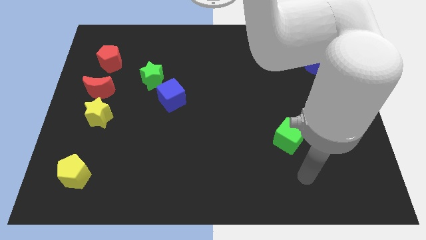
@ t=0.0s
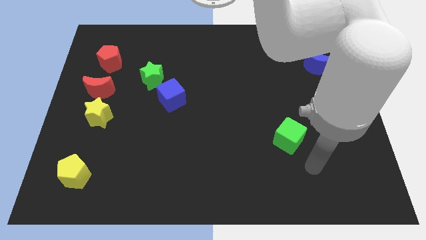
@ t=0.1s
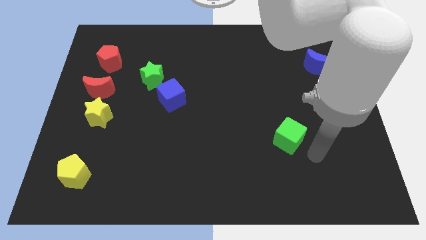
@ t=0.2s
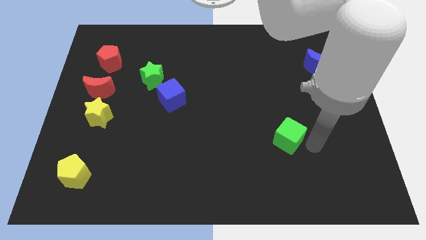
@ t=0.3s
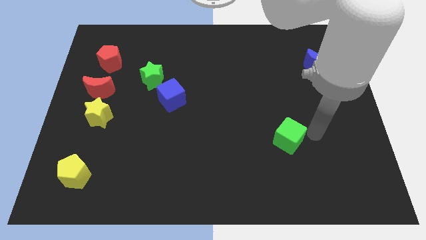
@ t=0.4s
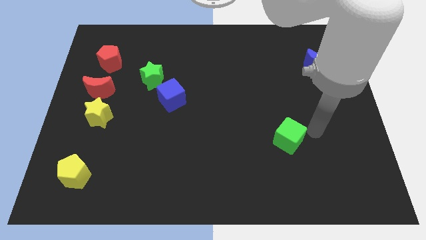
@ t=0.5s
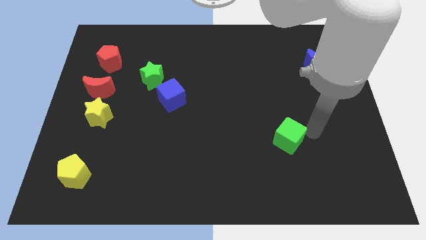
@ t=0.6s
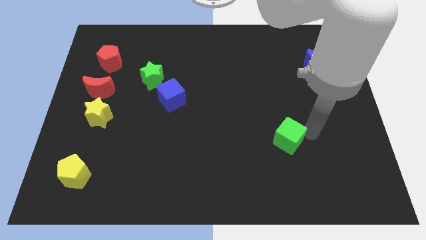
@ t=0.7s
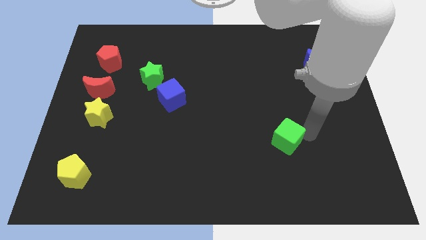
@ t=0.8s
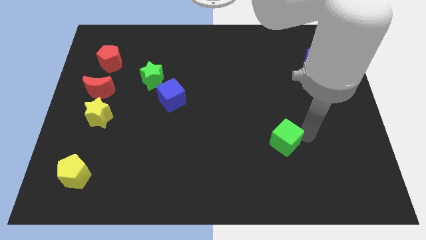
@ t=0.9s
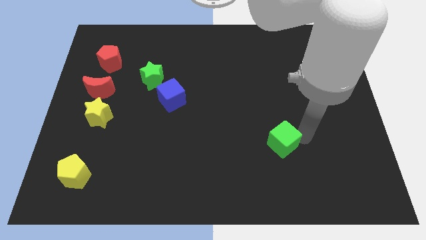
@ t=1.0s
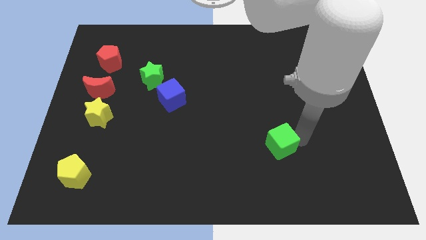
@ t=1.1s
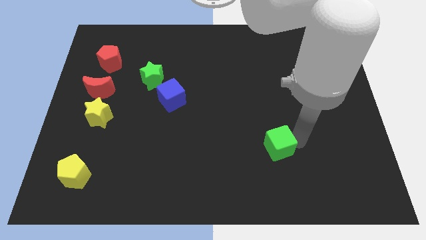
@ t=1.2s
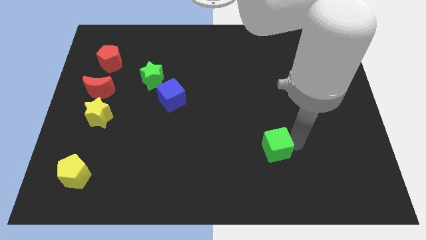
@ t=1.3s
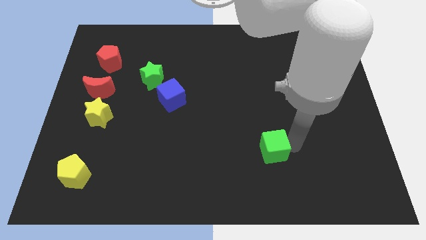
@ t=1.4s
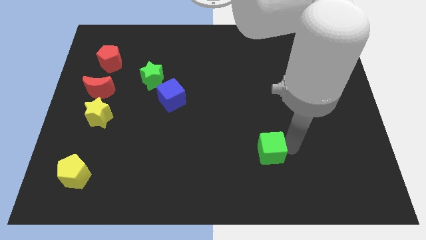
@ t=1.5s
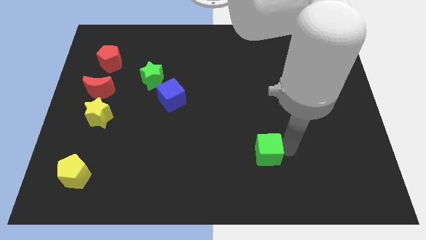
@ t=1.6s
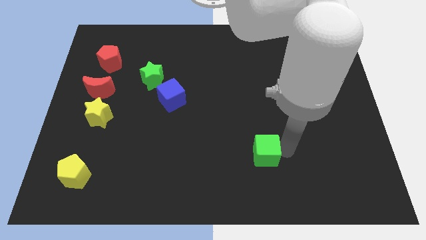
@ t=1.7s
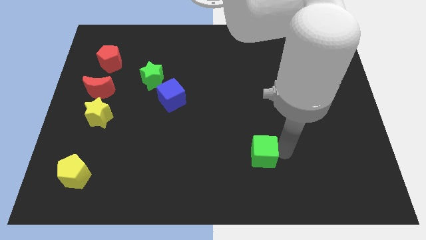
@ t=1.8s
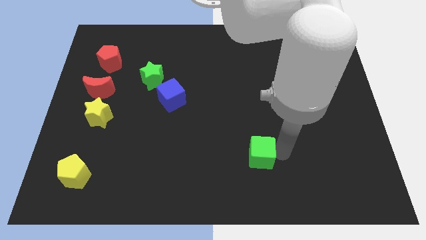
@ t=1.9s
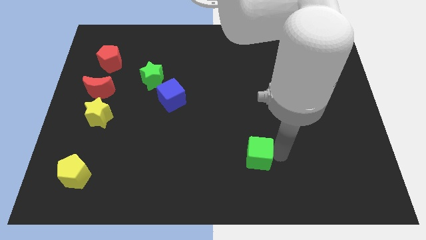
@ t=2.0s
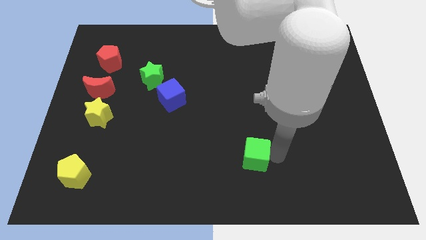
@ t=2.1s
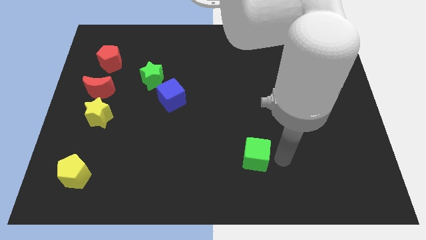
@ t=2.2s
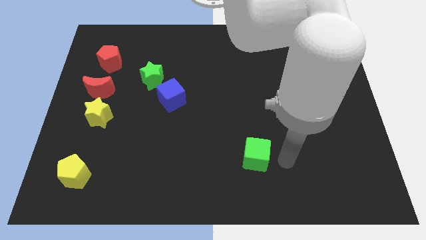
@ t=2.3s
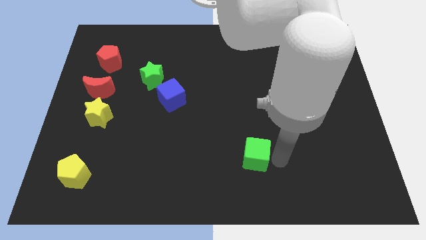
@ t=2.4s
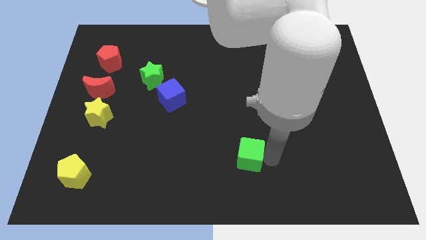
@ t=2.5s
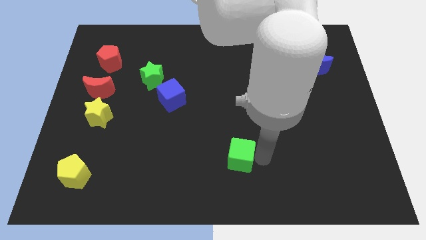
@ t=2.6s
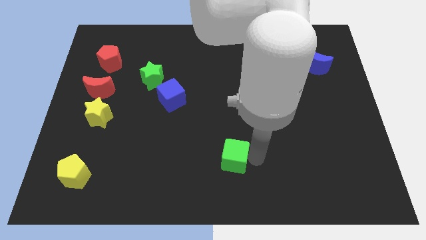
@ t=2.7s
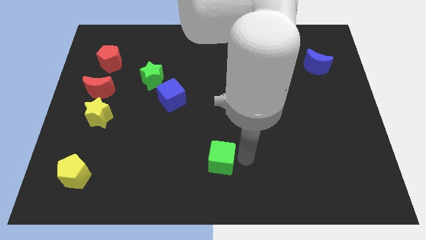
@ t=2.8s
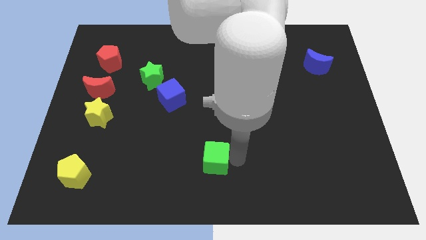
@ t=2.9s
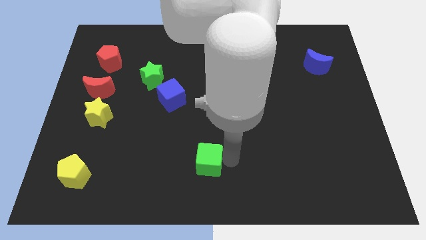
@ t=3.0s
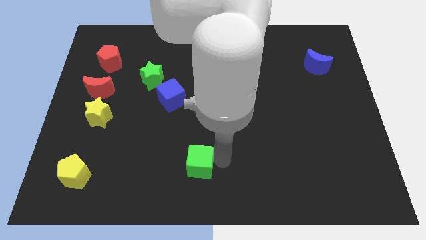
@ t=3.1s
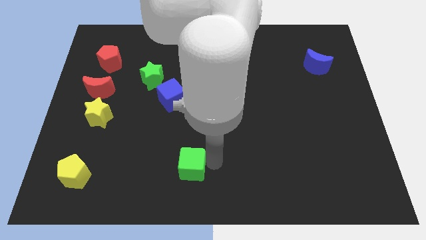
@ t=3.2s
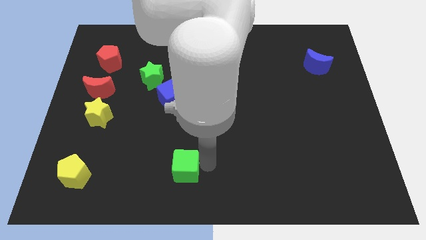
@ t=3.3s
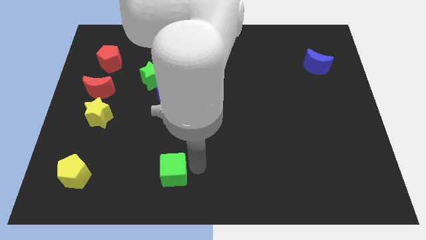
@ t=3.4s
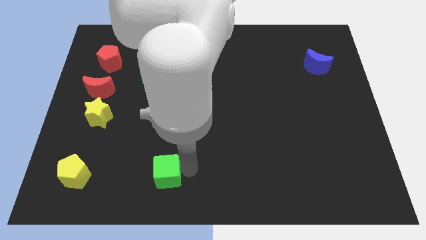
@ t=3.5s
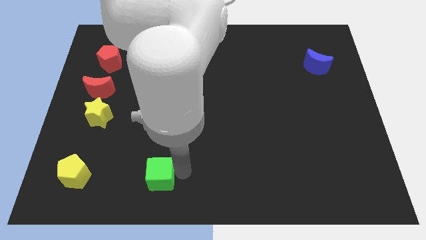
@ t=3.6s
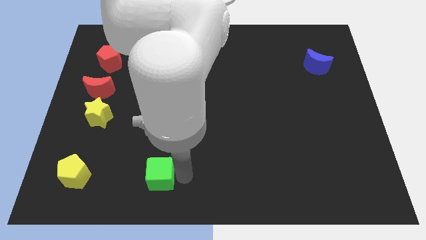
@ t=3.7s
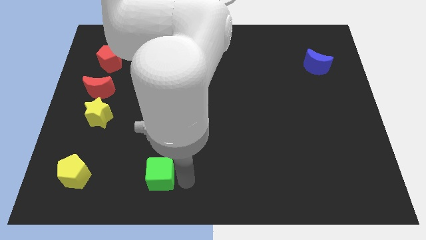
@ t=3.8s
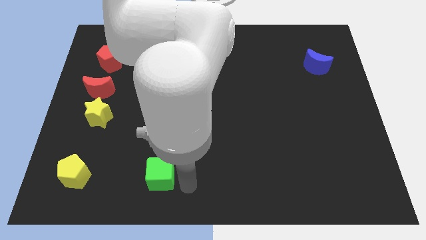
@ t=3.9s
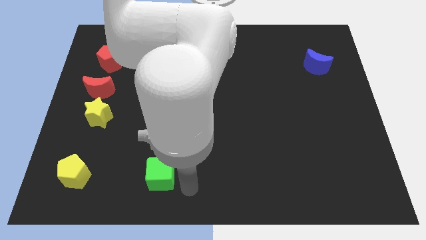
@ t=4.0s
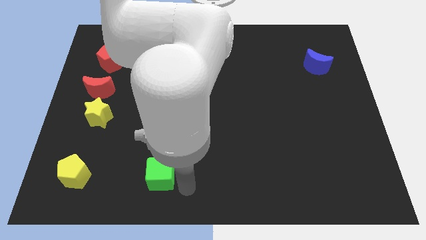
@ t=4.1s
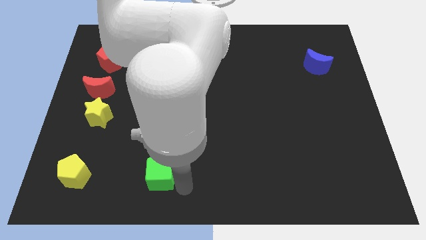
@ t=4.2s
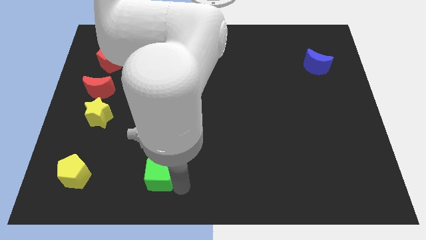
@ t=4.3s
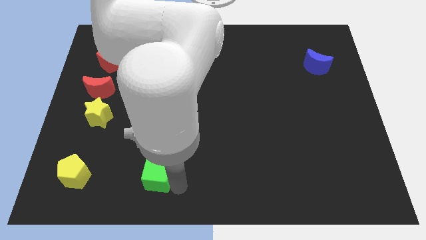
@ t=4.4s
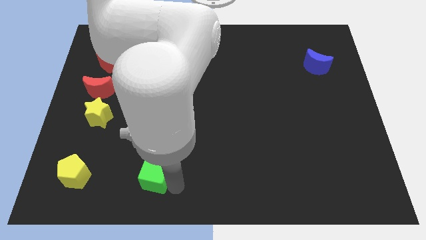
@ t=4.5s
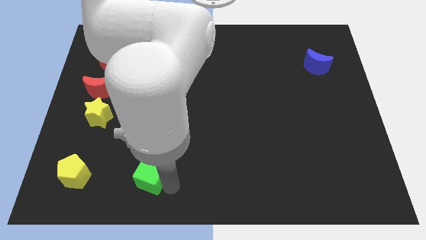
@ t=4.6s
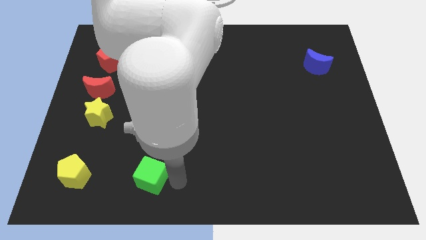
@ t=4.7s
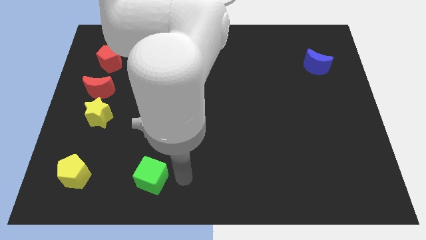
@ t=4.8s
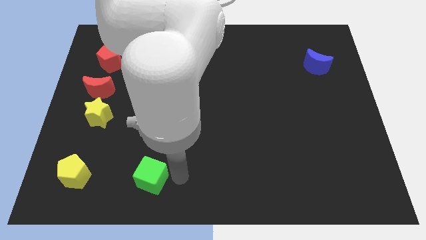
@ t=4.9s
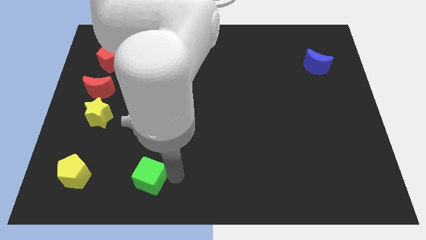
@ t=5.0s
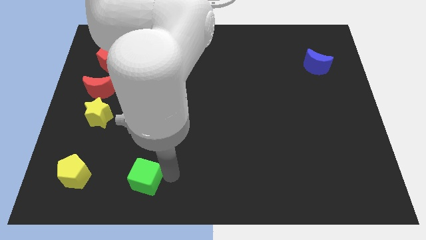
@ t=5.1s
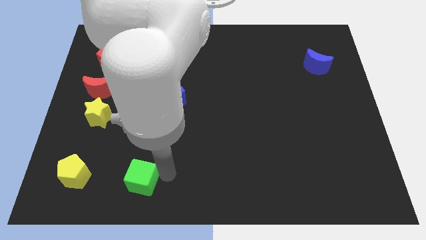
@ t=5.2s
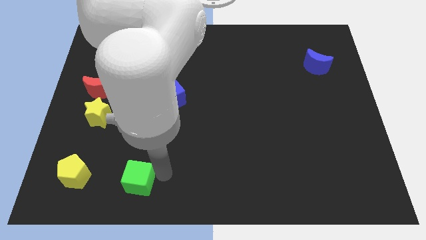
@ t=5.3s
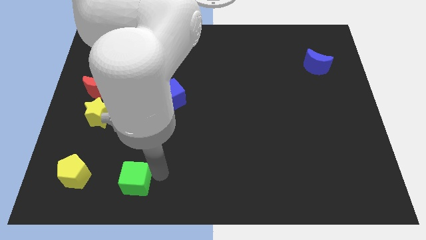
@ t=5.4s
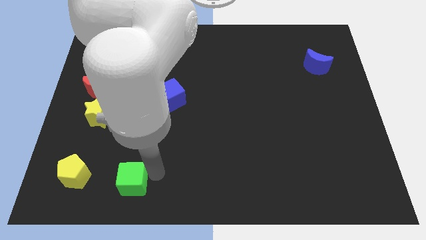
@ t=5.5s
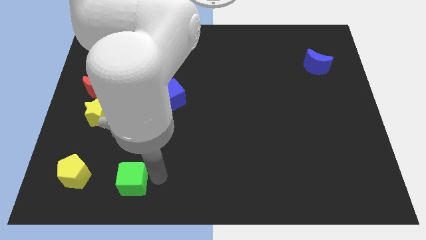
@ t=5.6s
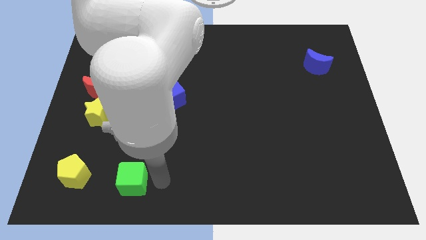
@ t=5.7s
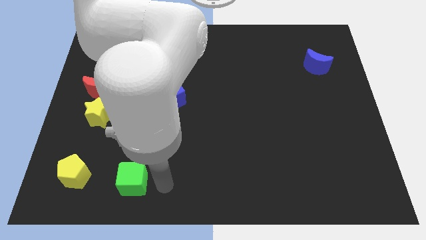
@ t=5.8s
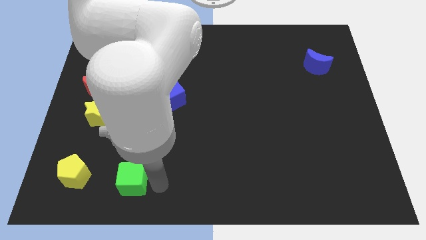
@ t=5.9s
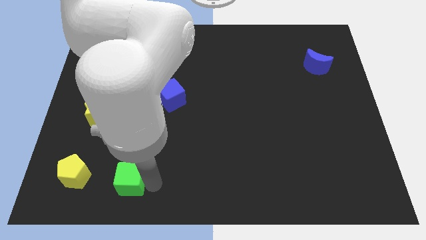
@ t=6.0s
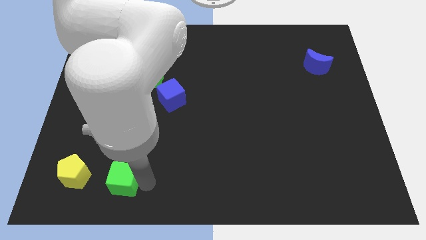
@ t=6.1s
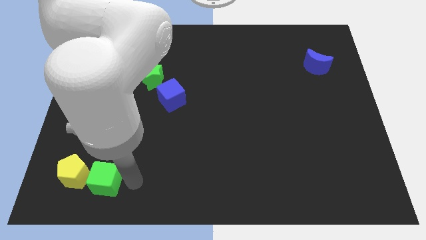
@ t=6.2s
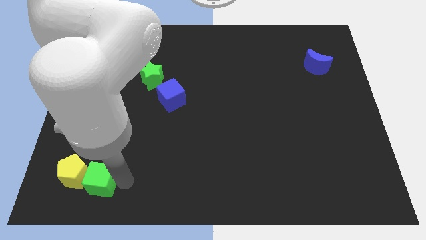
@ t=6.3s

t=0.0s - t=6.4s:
put the green cube close to the yellow pentagon

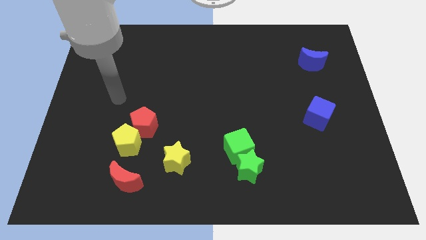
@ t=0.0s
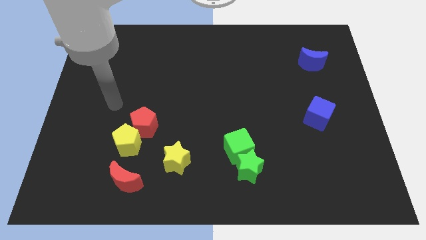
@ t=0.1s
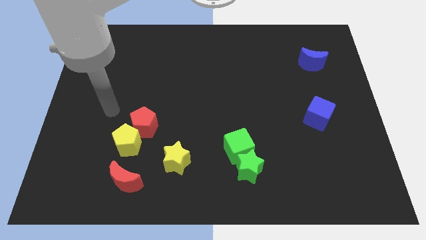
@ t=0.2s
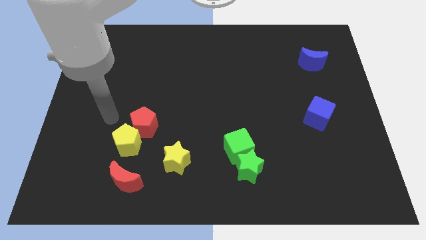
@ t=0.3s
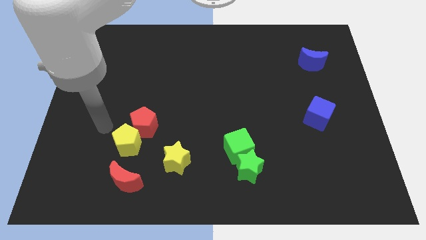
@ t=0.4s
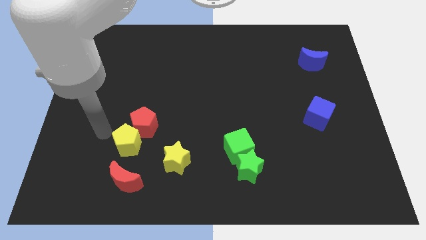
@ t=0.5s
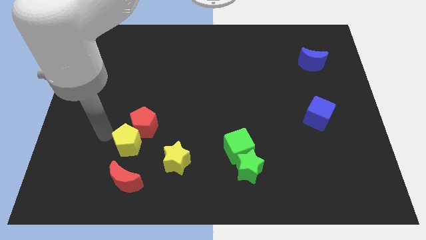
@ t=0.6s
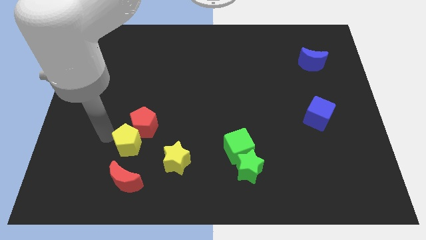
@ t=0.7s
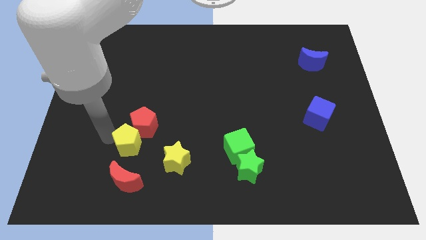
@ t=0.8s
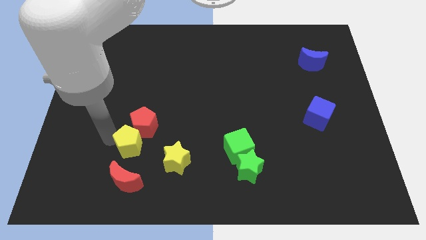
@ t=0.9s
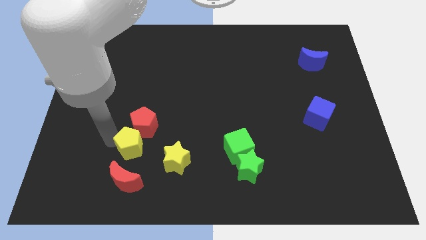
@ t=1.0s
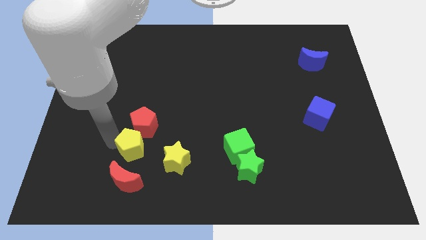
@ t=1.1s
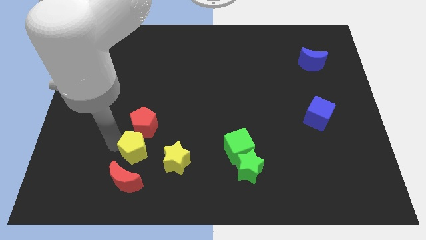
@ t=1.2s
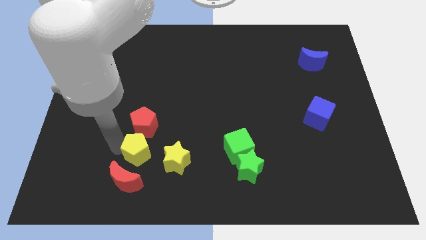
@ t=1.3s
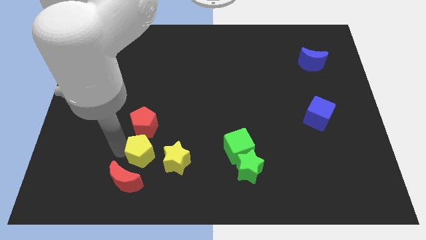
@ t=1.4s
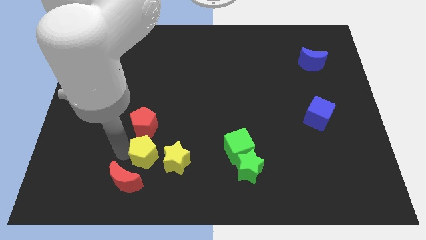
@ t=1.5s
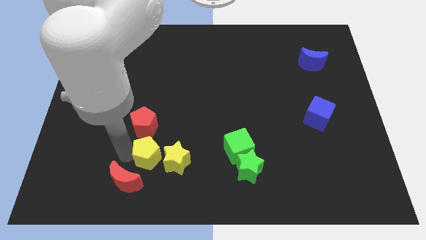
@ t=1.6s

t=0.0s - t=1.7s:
put the yellow pentagon close to the yellow star
